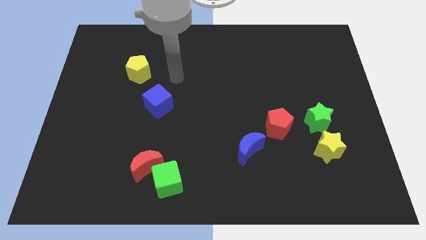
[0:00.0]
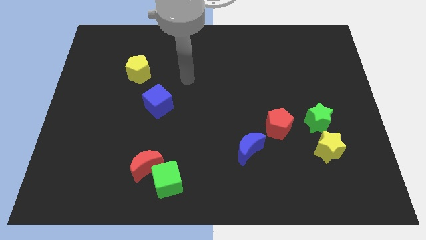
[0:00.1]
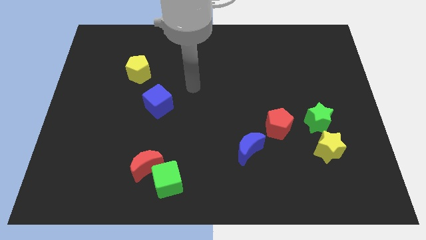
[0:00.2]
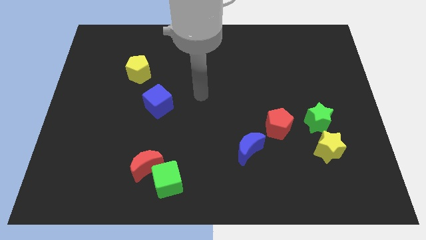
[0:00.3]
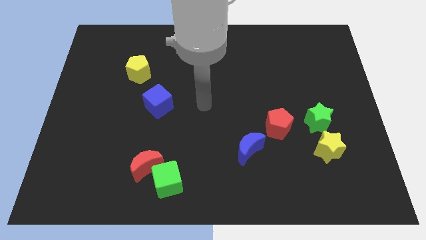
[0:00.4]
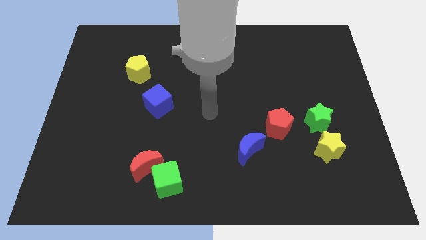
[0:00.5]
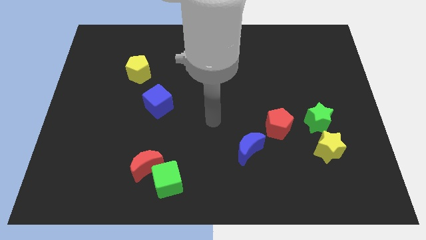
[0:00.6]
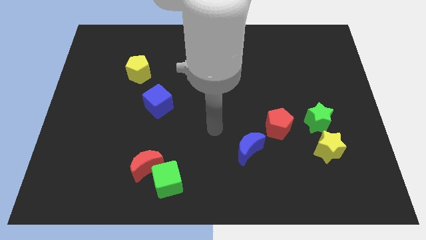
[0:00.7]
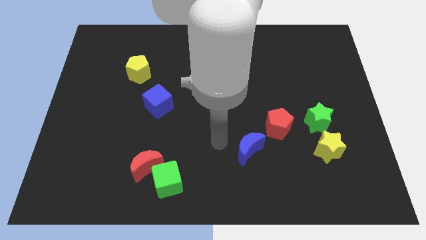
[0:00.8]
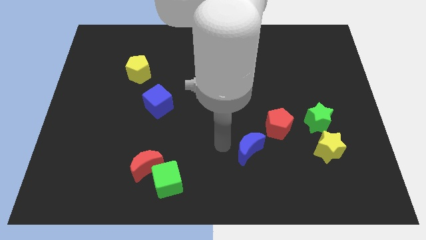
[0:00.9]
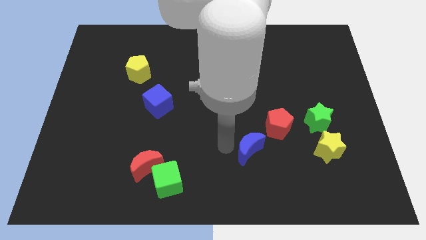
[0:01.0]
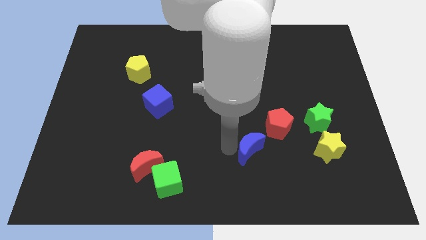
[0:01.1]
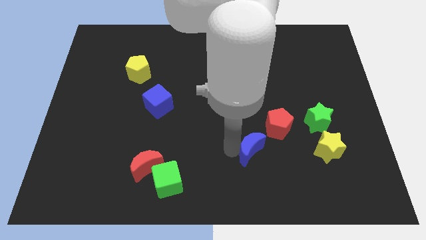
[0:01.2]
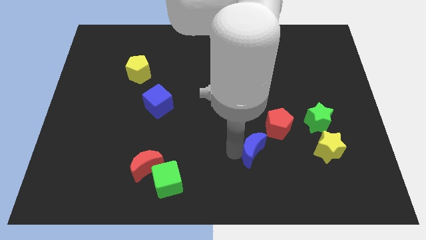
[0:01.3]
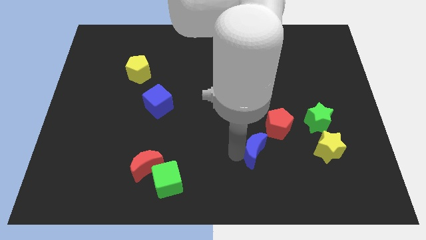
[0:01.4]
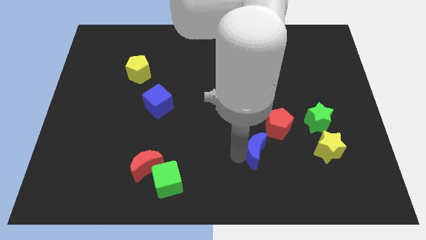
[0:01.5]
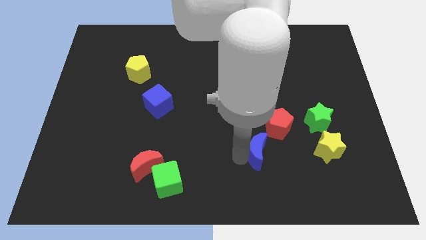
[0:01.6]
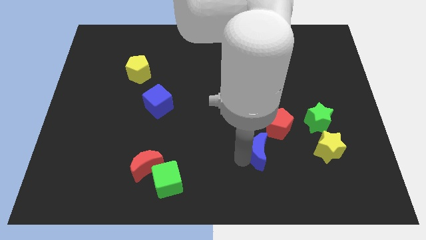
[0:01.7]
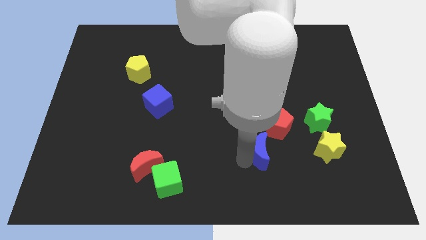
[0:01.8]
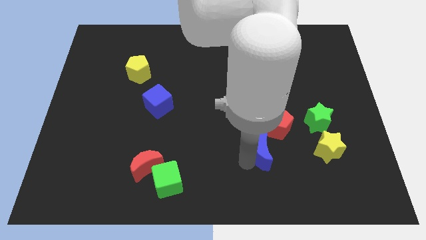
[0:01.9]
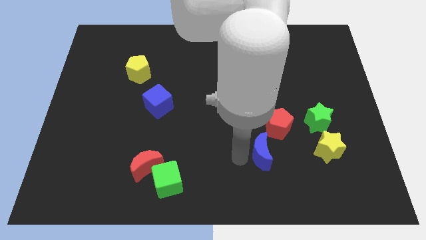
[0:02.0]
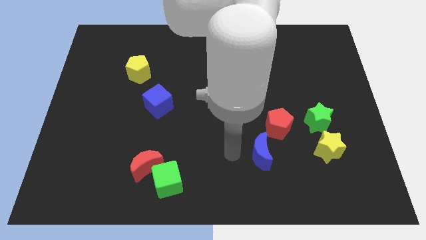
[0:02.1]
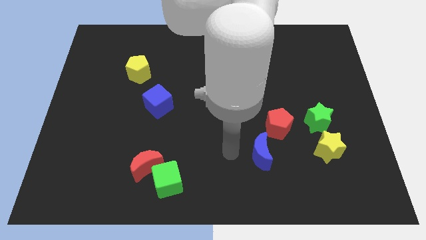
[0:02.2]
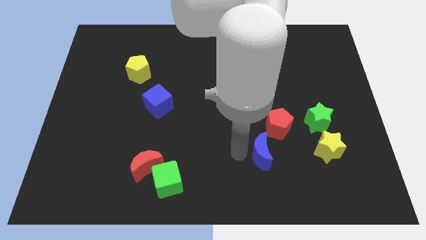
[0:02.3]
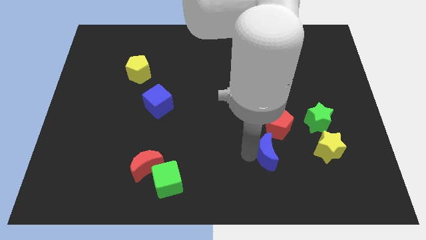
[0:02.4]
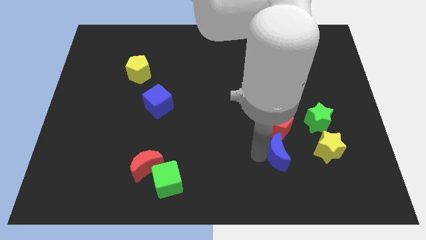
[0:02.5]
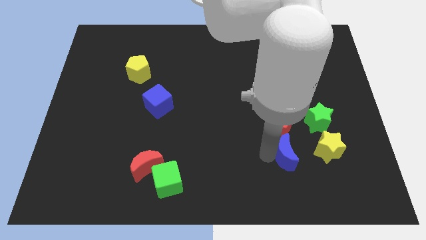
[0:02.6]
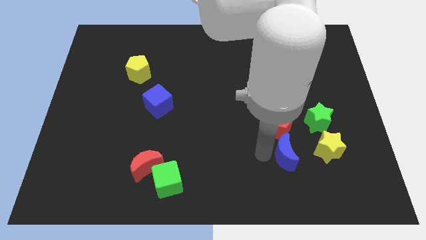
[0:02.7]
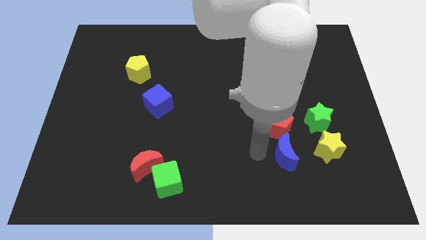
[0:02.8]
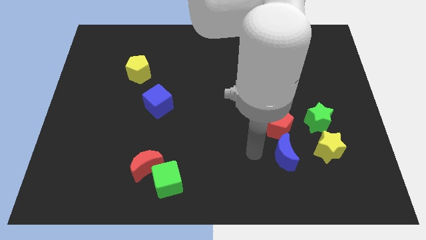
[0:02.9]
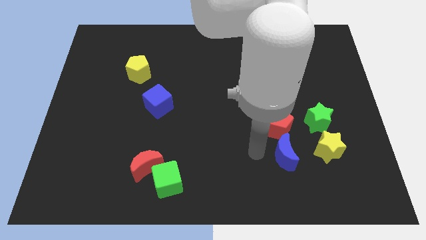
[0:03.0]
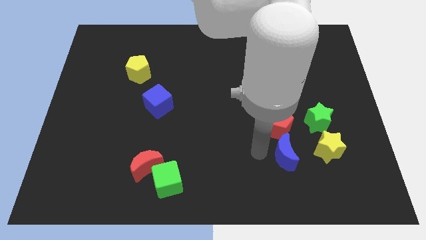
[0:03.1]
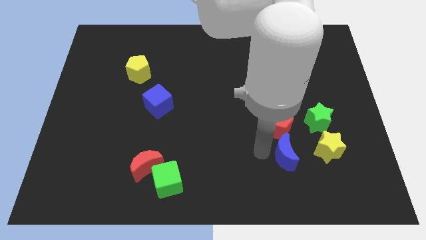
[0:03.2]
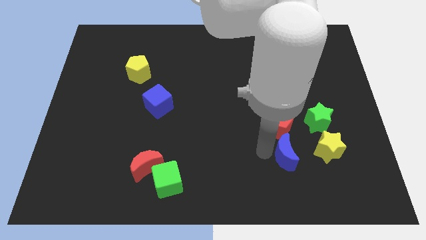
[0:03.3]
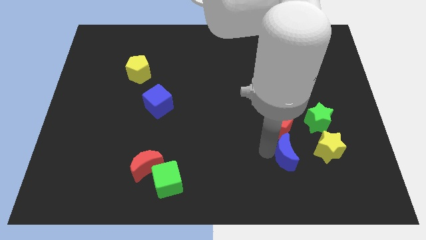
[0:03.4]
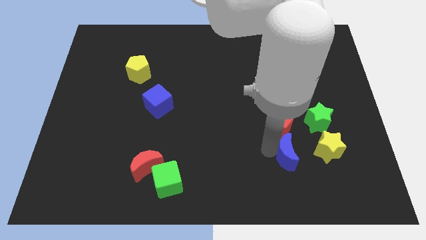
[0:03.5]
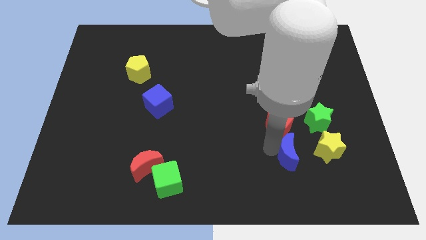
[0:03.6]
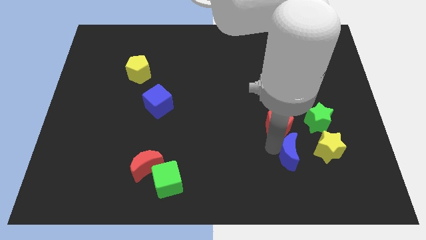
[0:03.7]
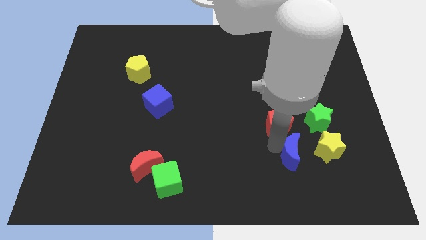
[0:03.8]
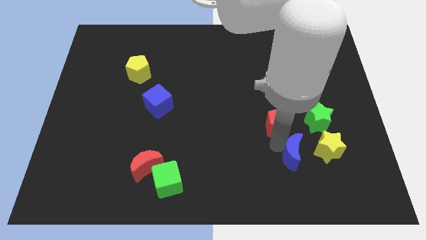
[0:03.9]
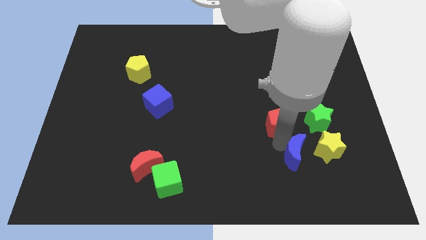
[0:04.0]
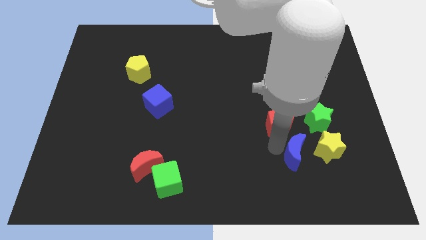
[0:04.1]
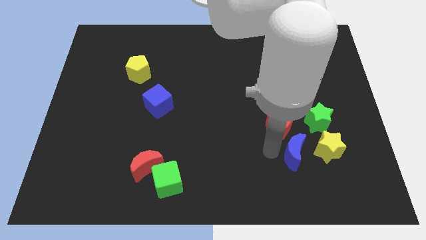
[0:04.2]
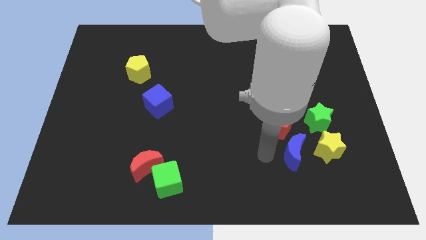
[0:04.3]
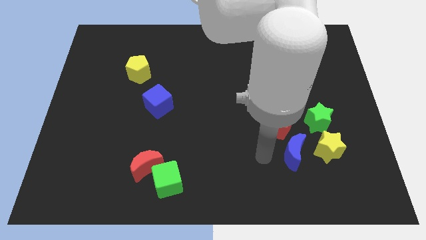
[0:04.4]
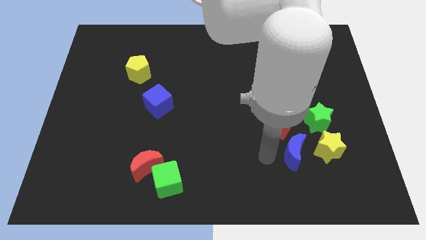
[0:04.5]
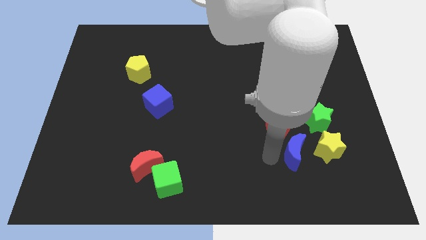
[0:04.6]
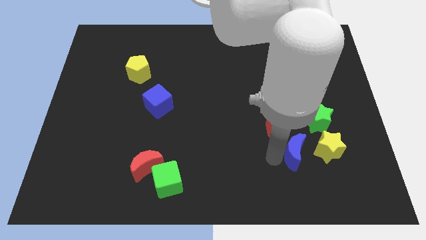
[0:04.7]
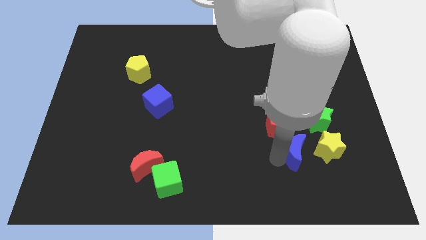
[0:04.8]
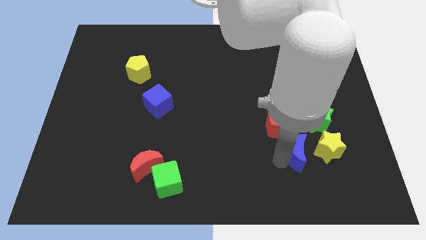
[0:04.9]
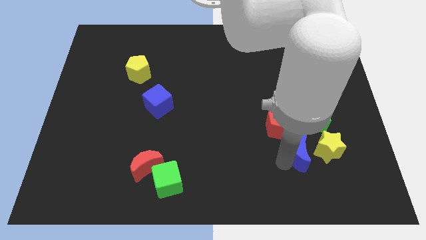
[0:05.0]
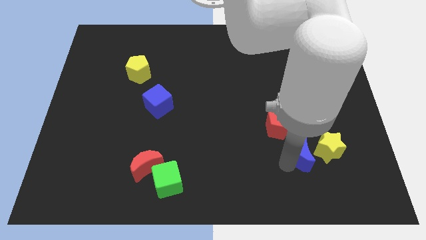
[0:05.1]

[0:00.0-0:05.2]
move the blue moon close to the yellow star

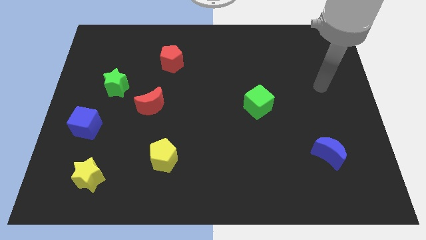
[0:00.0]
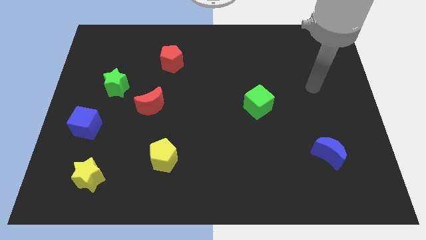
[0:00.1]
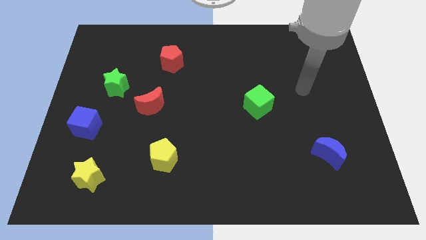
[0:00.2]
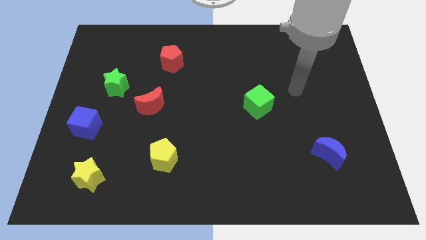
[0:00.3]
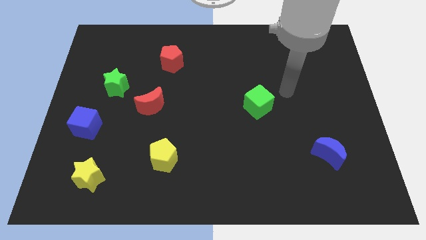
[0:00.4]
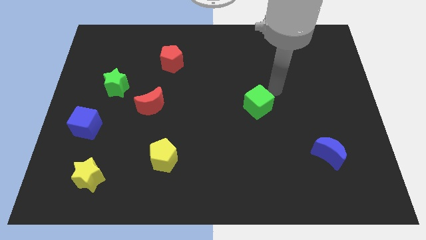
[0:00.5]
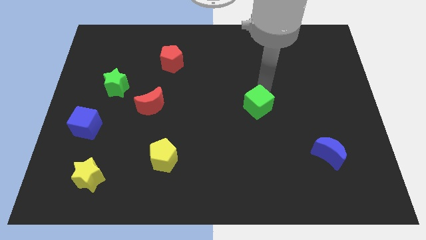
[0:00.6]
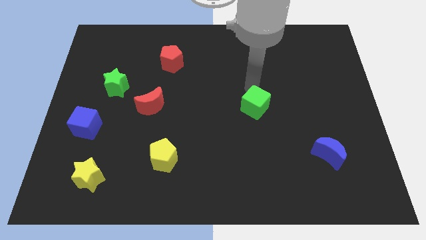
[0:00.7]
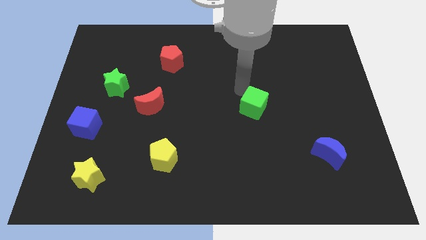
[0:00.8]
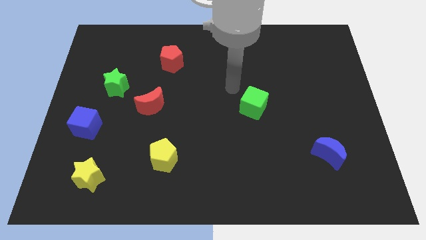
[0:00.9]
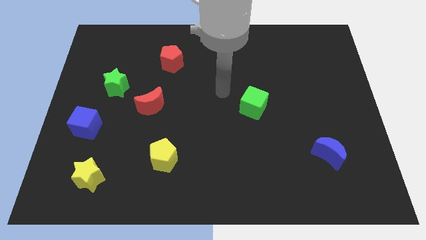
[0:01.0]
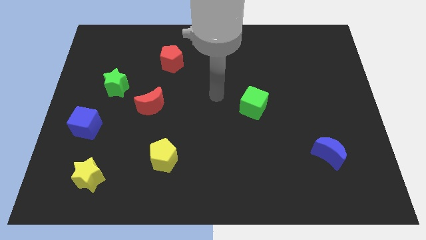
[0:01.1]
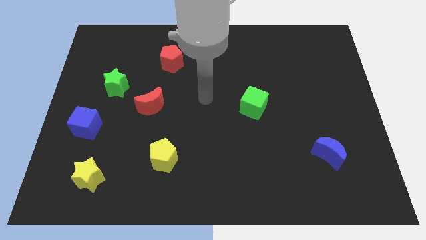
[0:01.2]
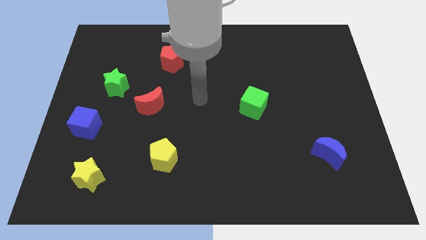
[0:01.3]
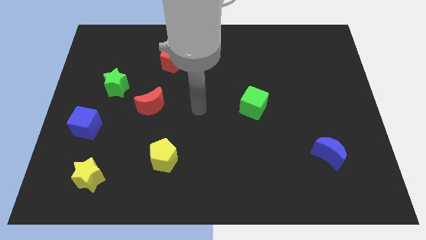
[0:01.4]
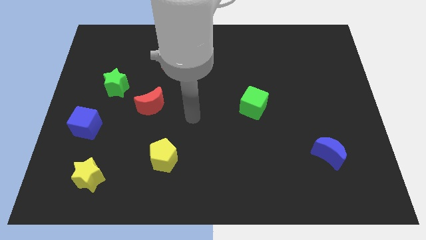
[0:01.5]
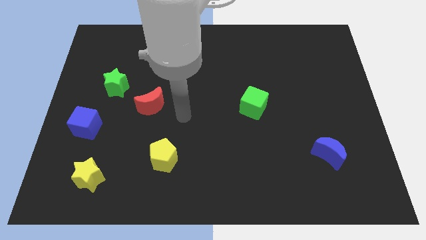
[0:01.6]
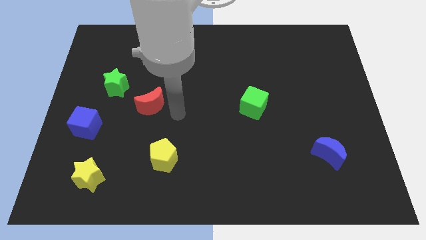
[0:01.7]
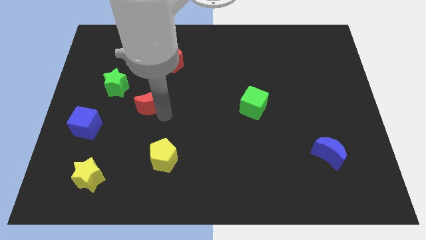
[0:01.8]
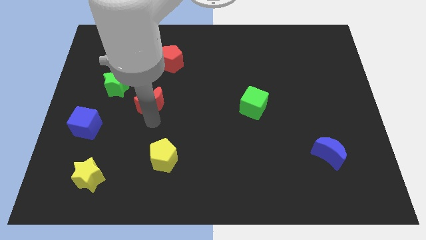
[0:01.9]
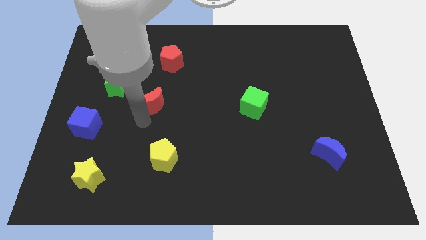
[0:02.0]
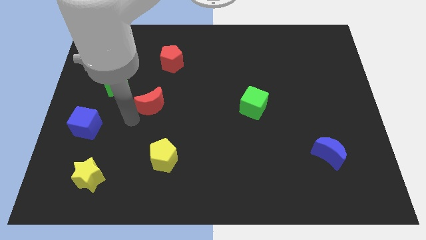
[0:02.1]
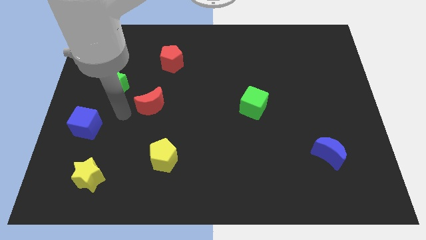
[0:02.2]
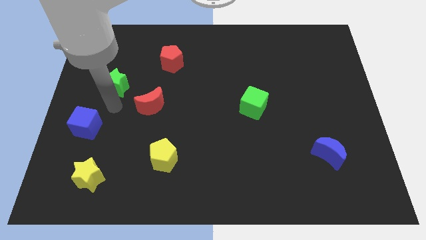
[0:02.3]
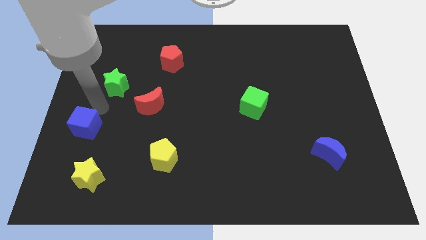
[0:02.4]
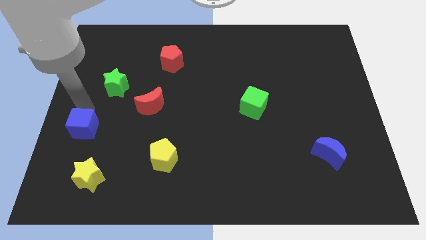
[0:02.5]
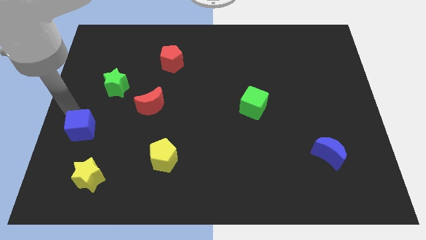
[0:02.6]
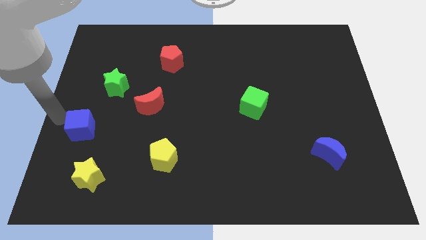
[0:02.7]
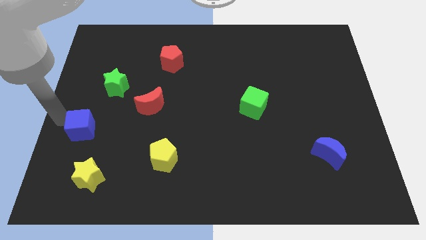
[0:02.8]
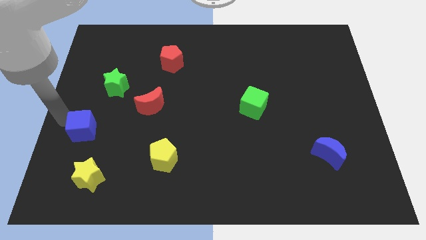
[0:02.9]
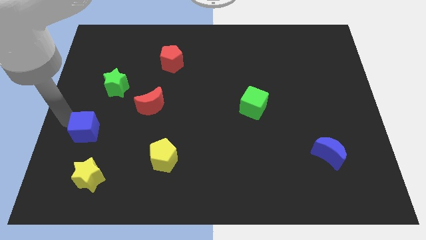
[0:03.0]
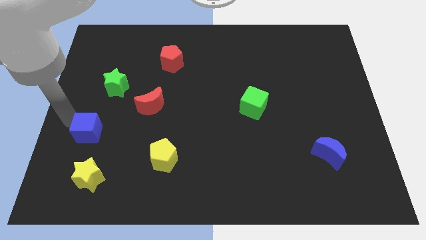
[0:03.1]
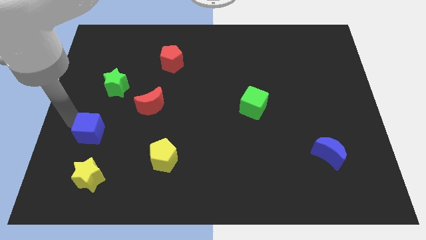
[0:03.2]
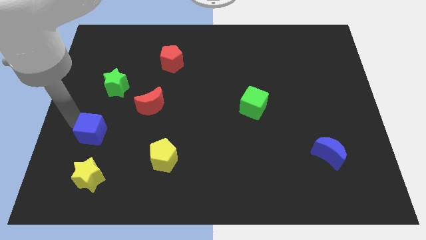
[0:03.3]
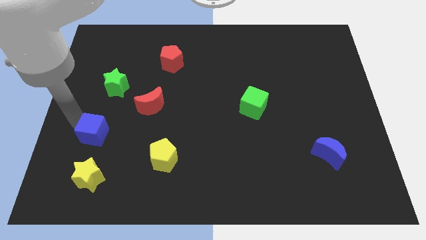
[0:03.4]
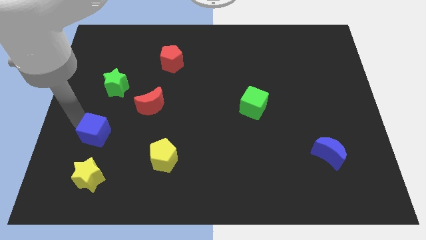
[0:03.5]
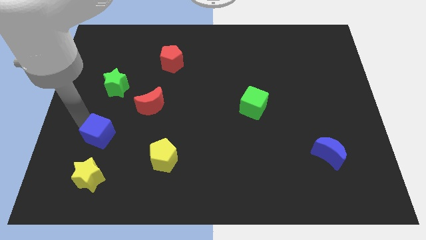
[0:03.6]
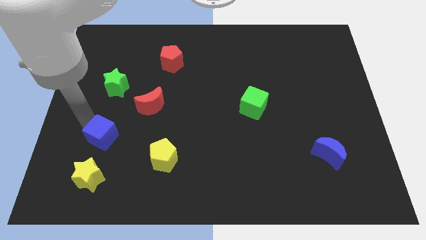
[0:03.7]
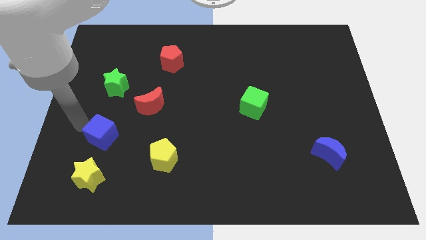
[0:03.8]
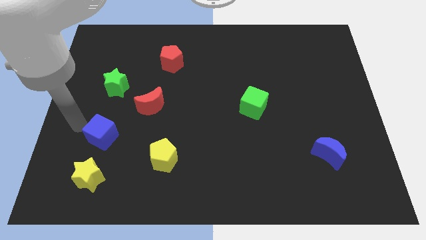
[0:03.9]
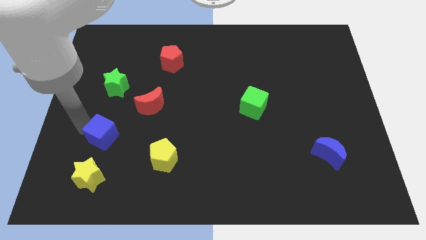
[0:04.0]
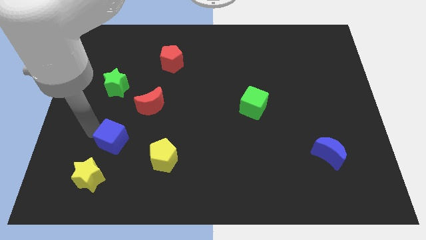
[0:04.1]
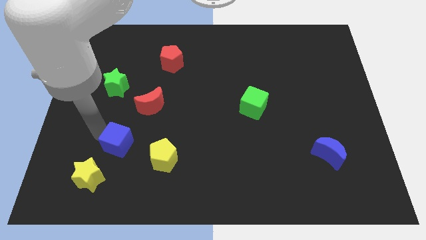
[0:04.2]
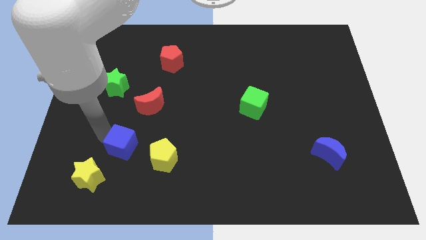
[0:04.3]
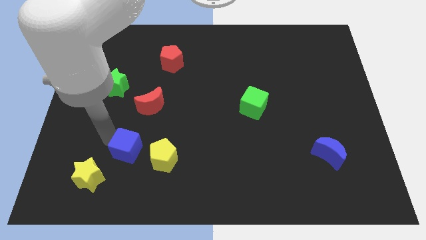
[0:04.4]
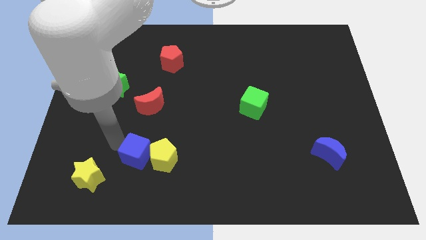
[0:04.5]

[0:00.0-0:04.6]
move the blue cube close to the yellow pentagon
